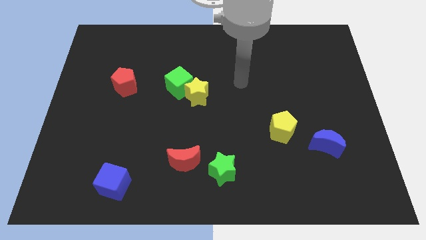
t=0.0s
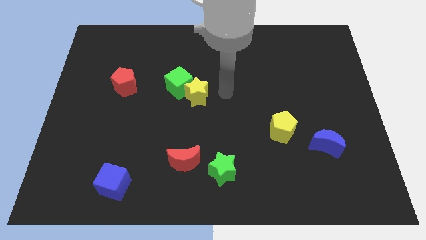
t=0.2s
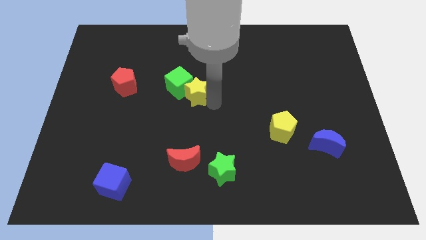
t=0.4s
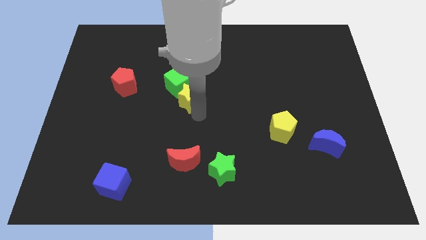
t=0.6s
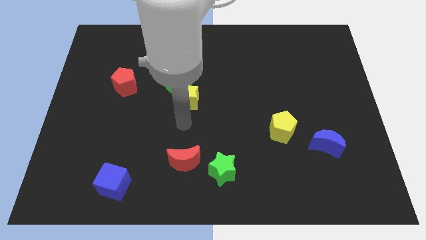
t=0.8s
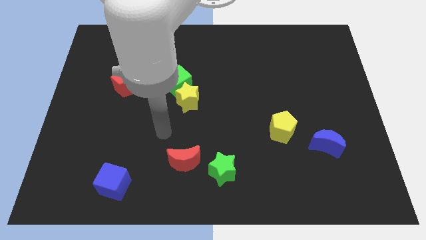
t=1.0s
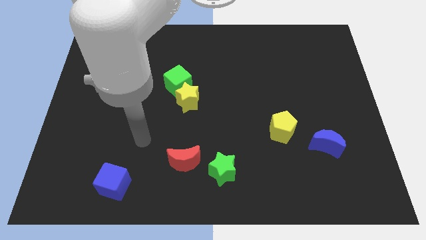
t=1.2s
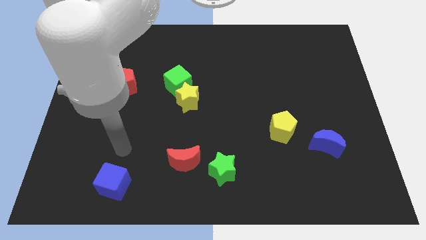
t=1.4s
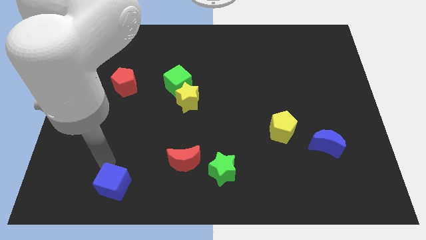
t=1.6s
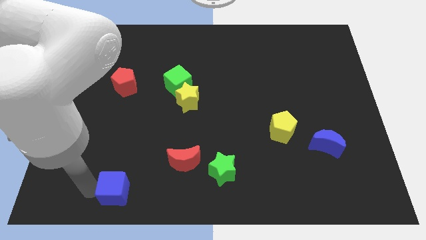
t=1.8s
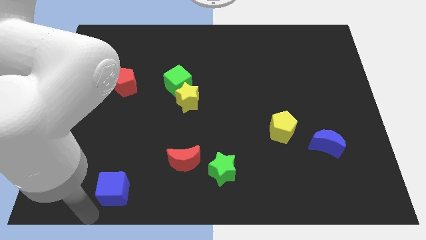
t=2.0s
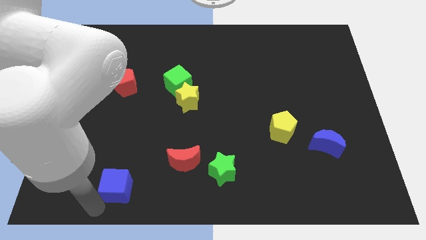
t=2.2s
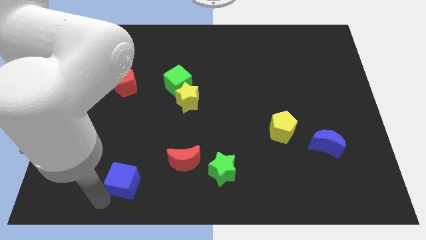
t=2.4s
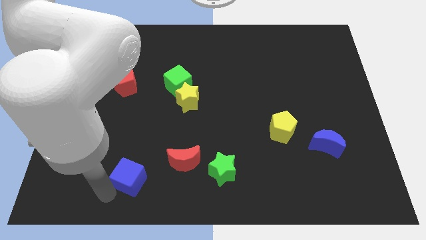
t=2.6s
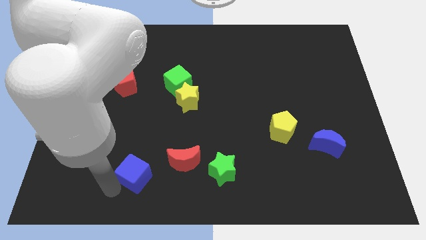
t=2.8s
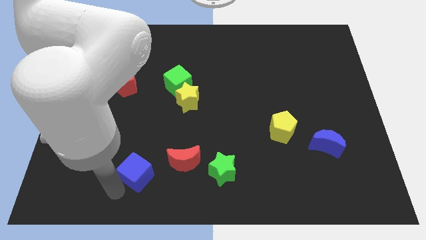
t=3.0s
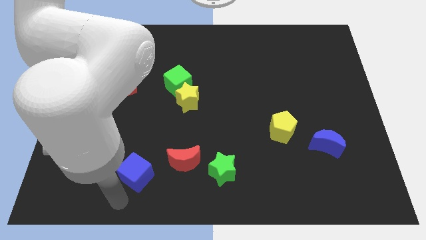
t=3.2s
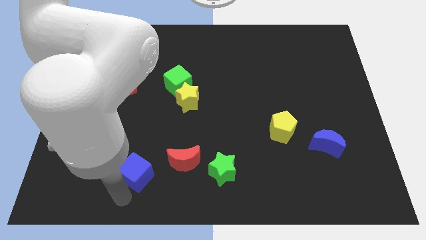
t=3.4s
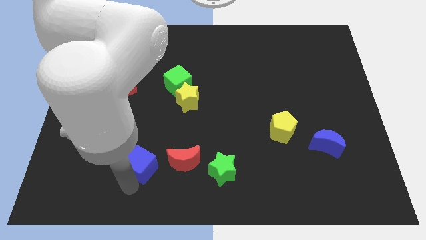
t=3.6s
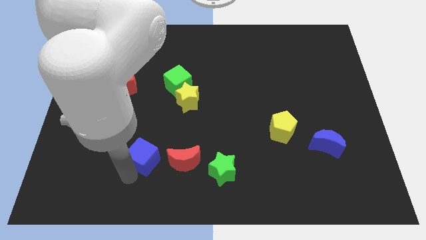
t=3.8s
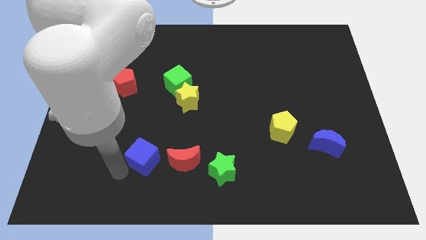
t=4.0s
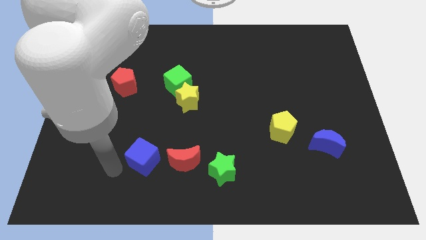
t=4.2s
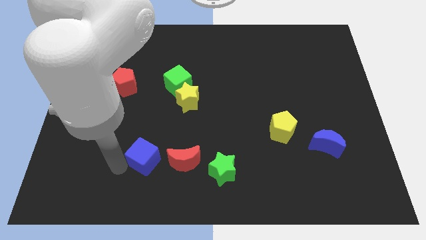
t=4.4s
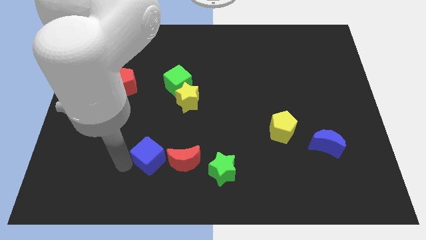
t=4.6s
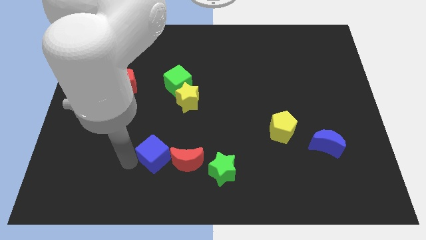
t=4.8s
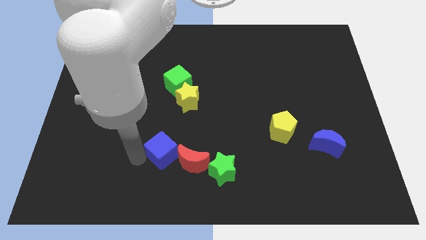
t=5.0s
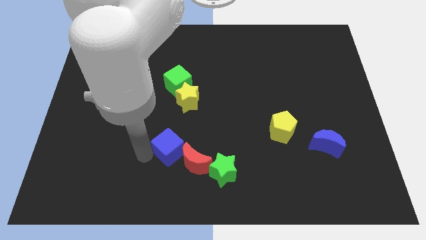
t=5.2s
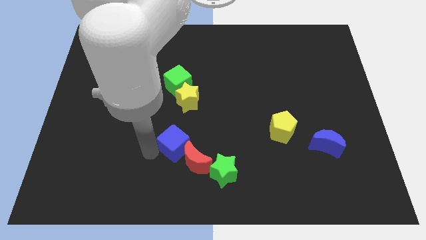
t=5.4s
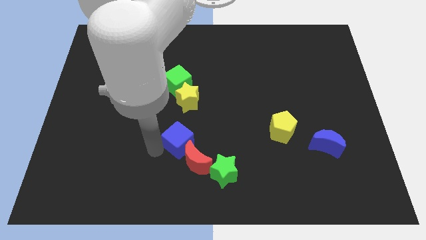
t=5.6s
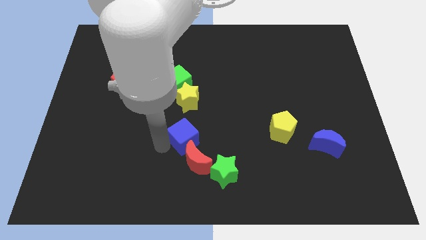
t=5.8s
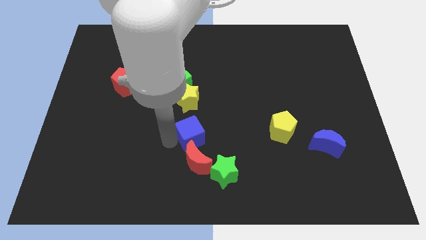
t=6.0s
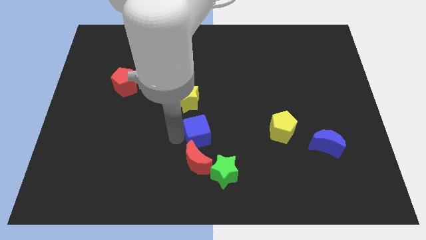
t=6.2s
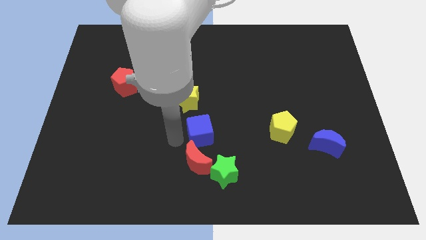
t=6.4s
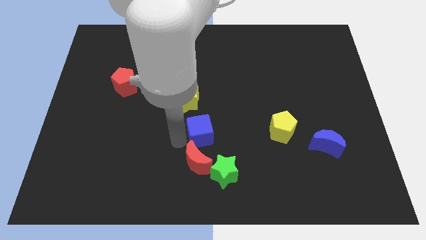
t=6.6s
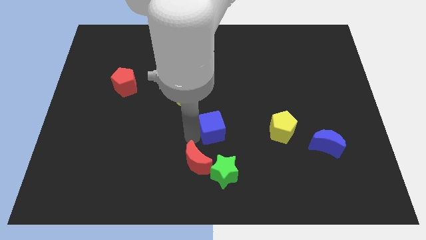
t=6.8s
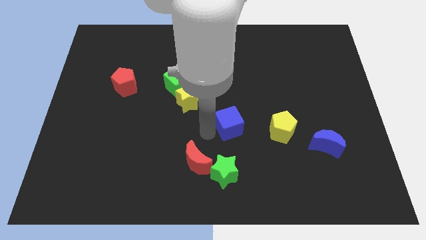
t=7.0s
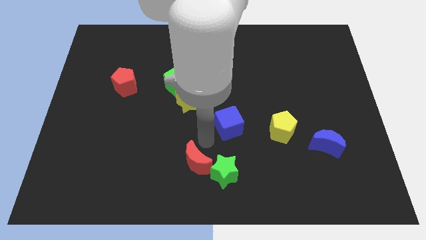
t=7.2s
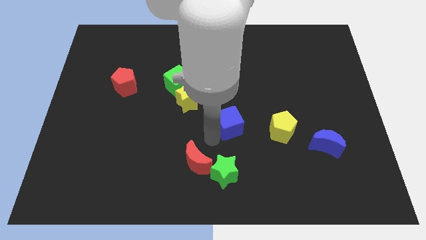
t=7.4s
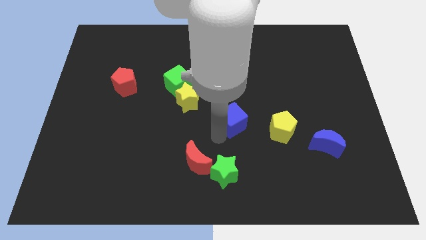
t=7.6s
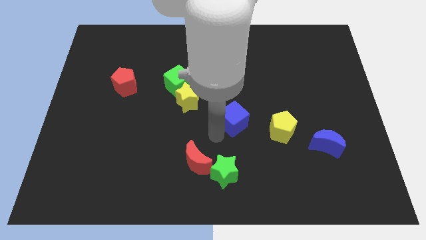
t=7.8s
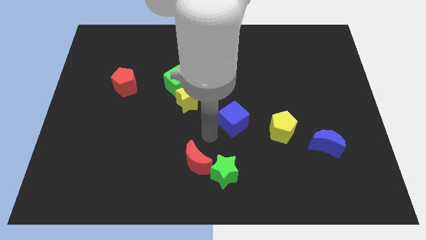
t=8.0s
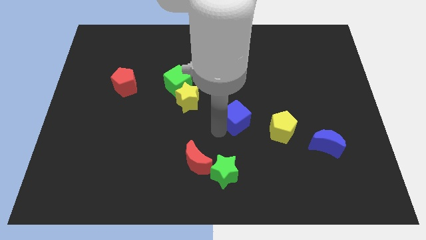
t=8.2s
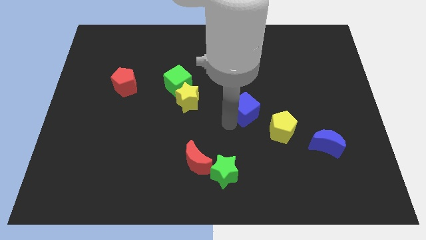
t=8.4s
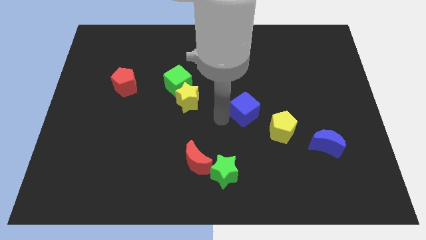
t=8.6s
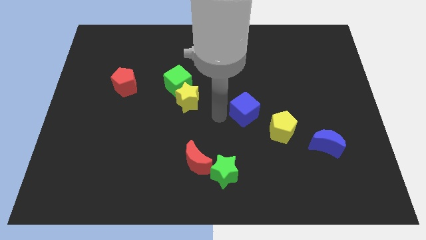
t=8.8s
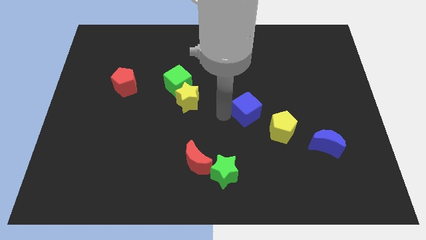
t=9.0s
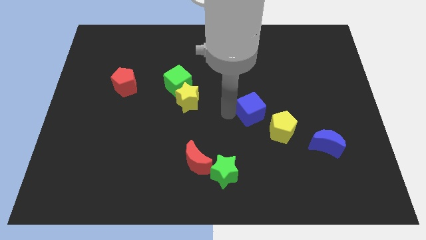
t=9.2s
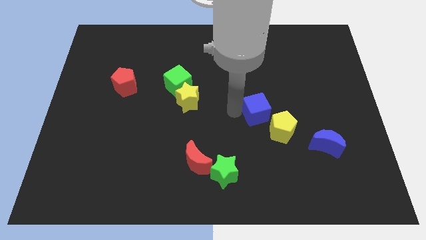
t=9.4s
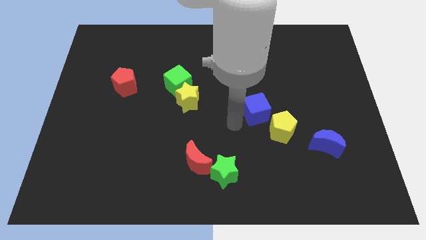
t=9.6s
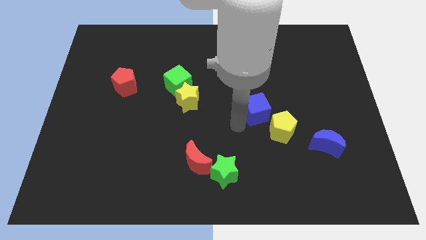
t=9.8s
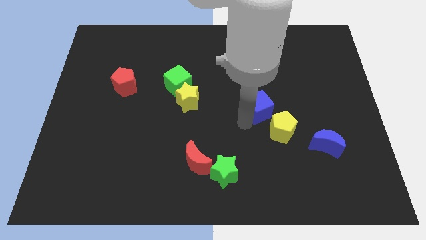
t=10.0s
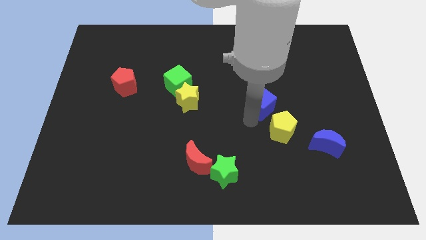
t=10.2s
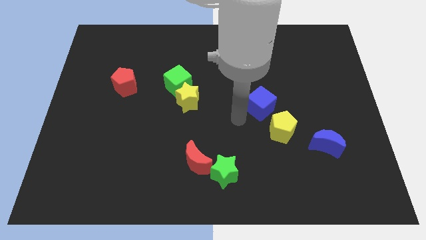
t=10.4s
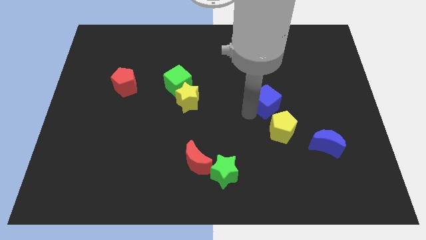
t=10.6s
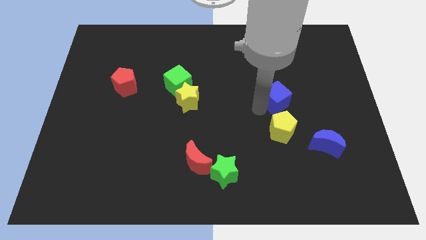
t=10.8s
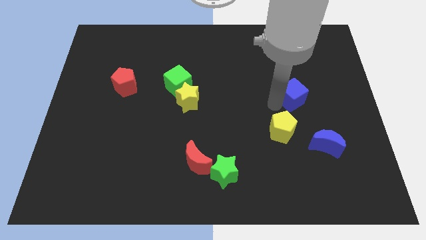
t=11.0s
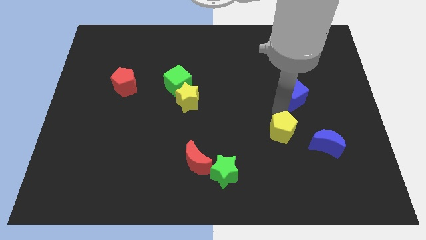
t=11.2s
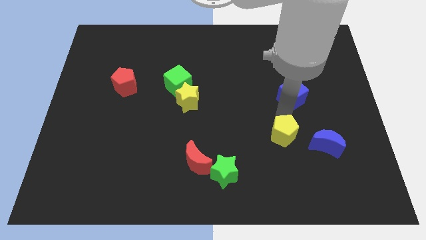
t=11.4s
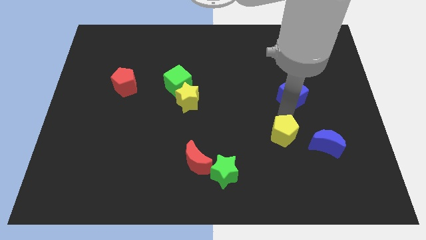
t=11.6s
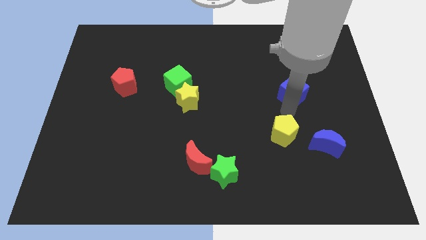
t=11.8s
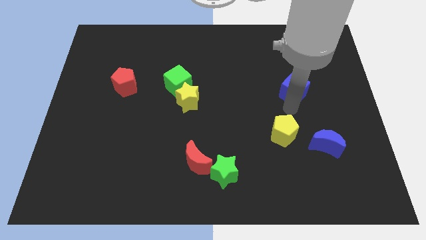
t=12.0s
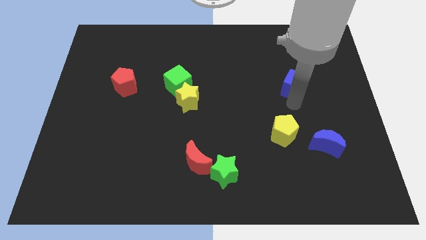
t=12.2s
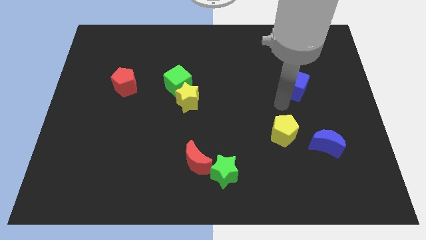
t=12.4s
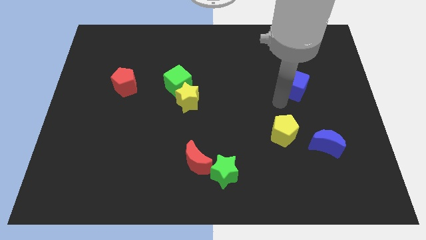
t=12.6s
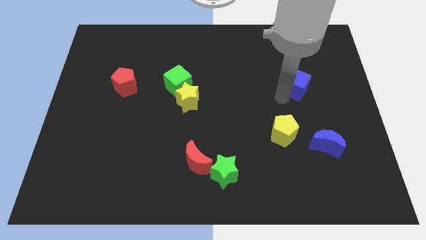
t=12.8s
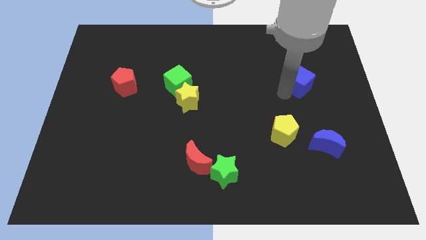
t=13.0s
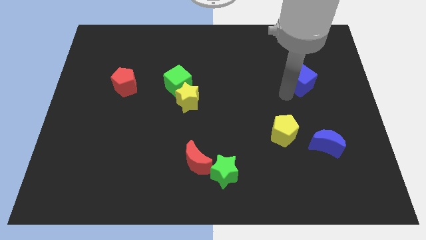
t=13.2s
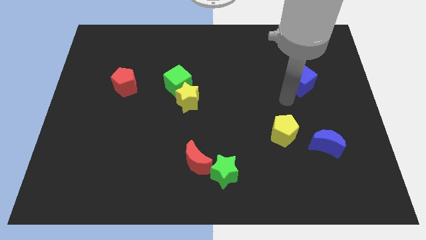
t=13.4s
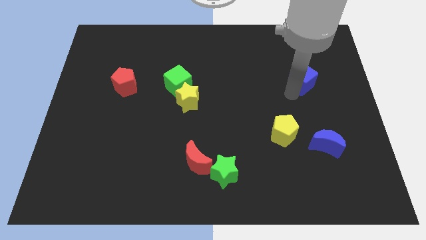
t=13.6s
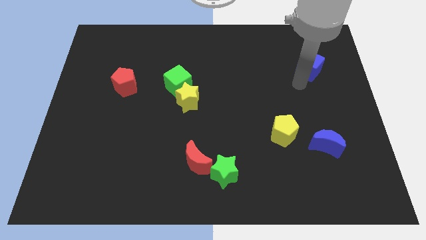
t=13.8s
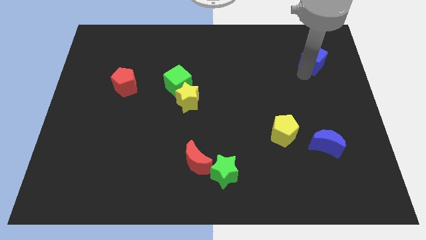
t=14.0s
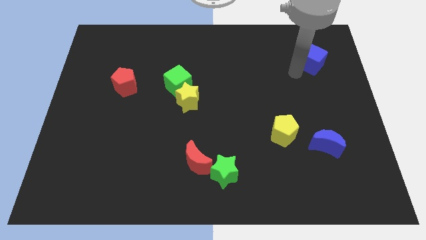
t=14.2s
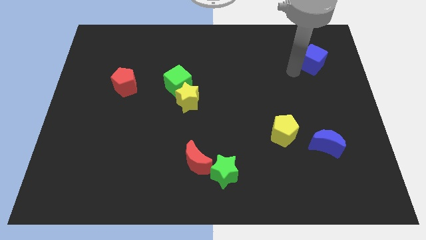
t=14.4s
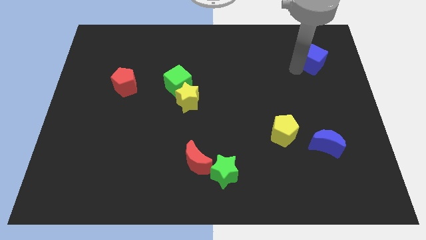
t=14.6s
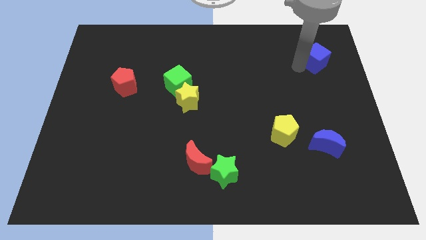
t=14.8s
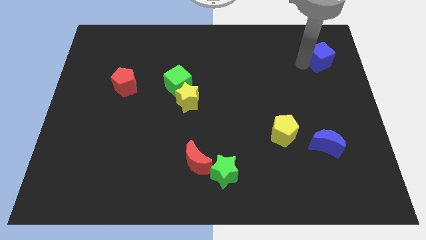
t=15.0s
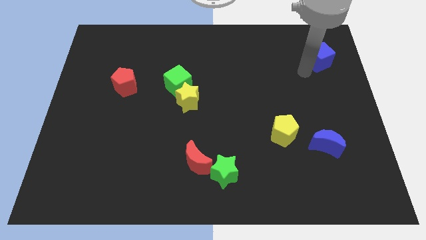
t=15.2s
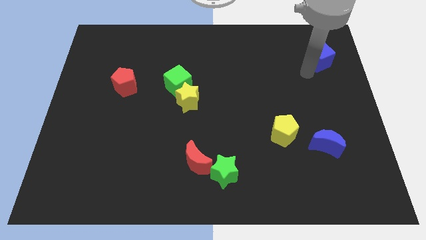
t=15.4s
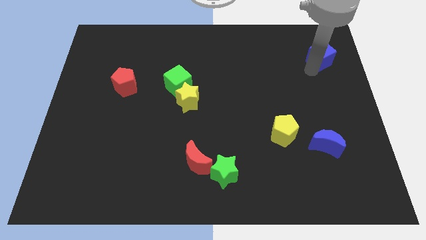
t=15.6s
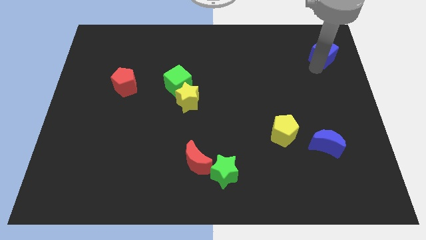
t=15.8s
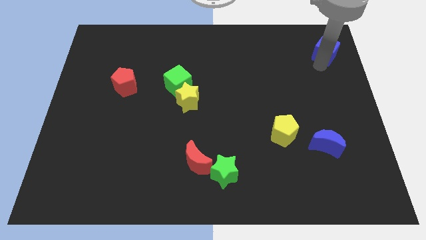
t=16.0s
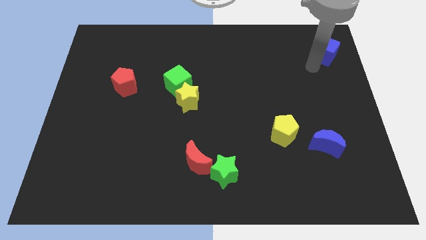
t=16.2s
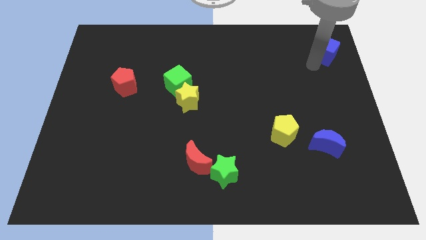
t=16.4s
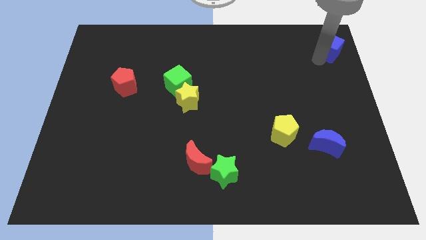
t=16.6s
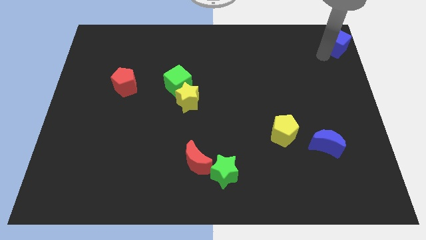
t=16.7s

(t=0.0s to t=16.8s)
push the blue cube to the upper right corner
